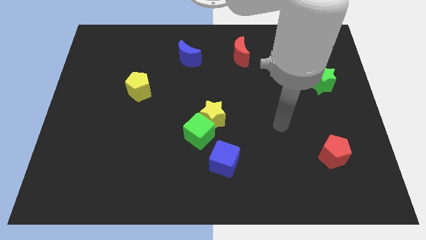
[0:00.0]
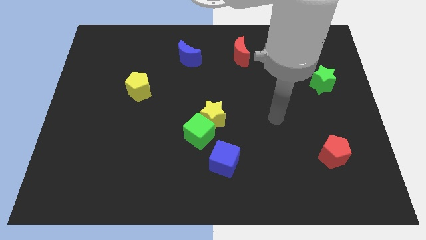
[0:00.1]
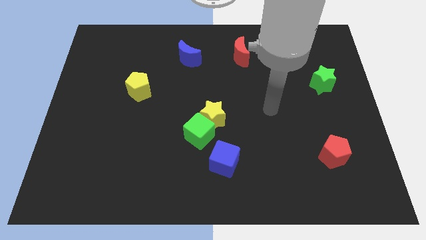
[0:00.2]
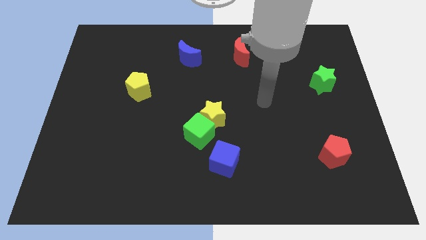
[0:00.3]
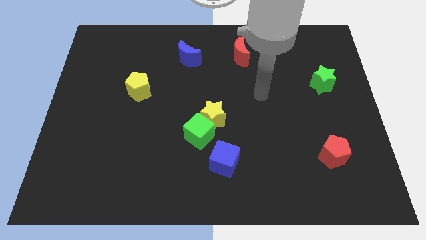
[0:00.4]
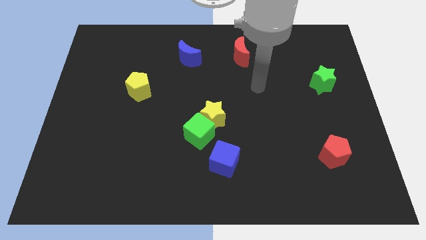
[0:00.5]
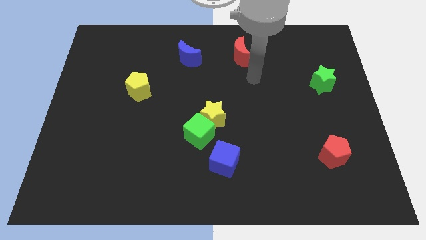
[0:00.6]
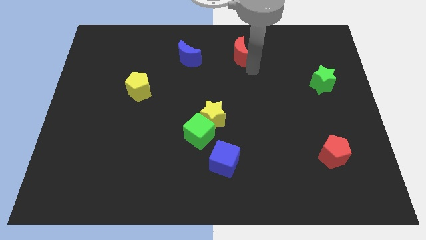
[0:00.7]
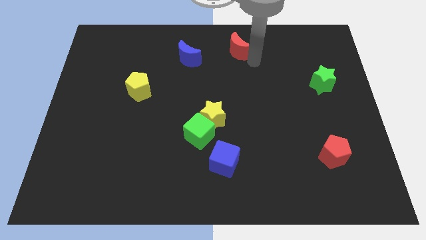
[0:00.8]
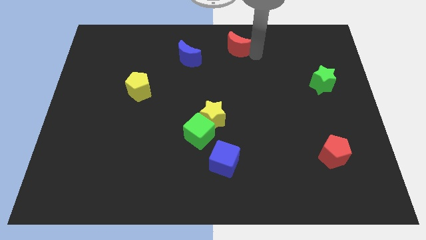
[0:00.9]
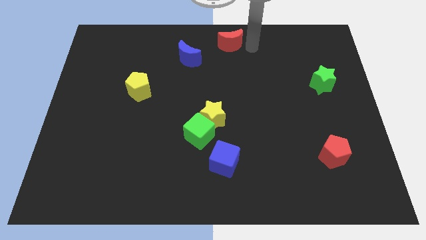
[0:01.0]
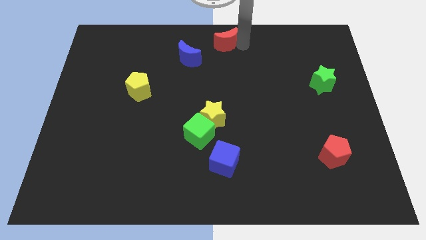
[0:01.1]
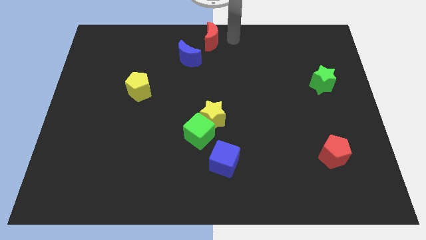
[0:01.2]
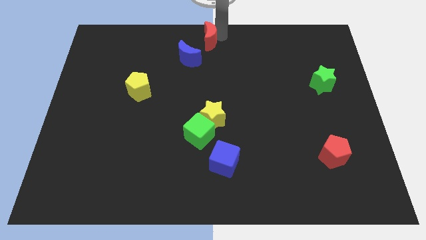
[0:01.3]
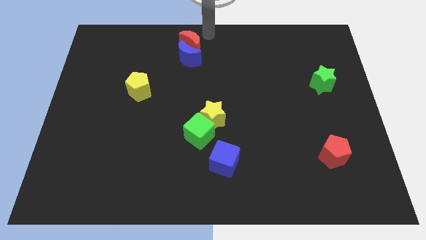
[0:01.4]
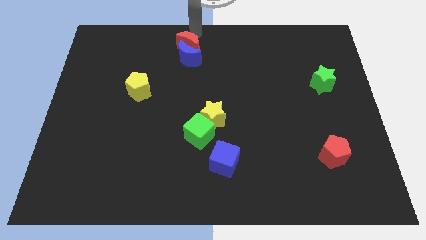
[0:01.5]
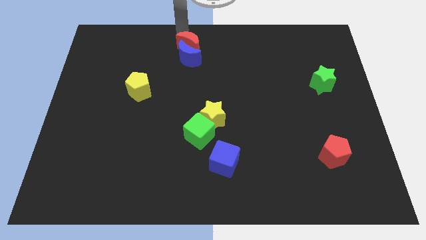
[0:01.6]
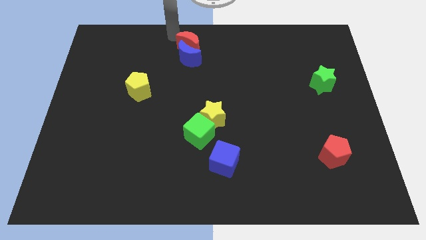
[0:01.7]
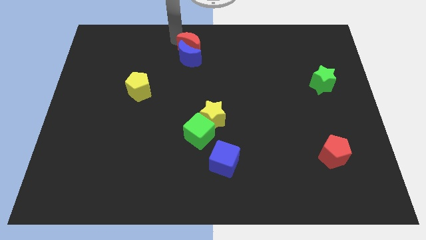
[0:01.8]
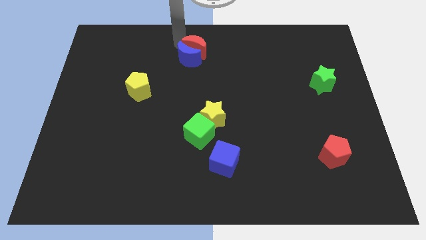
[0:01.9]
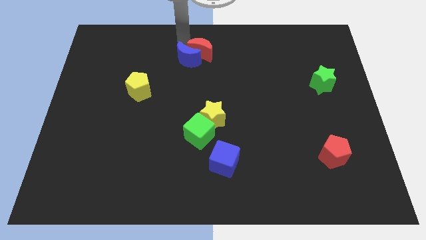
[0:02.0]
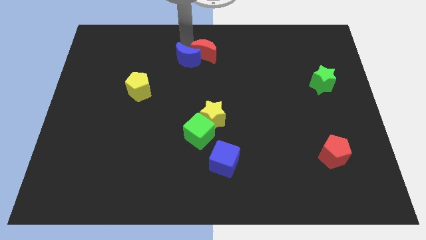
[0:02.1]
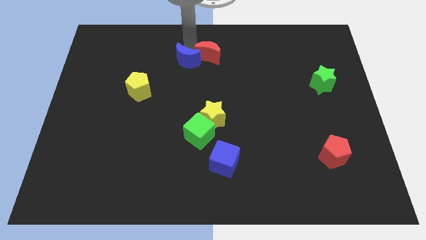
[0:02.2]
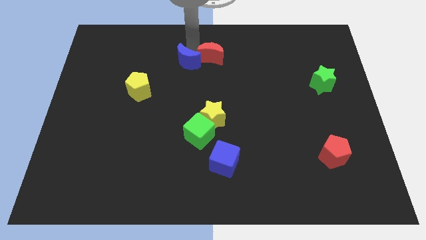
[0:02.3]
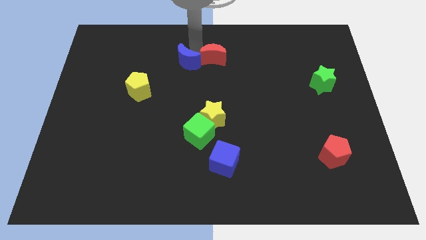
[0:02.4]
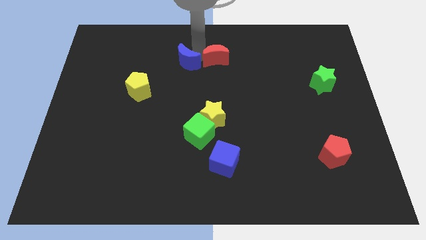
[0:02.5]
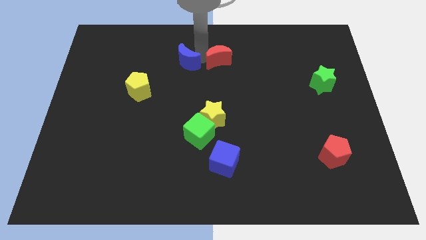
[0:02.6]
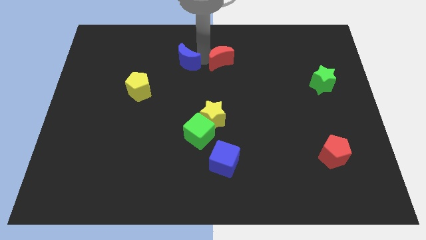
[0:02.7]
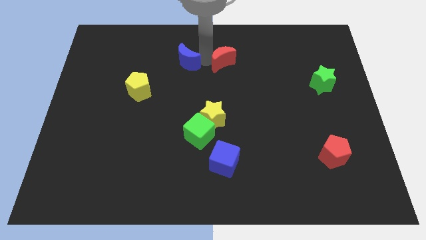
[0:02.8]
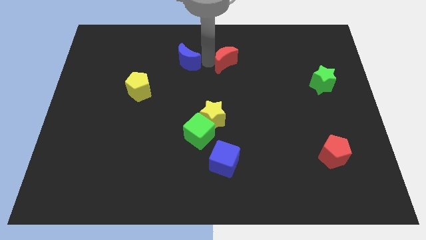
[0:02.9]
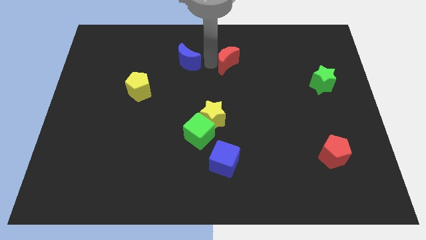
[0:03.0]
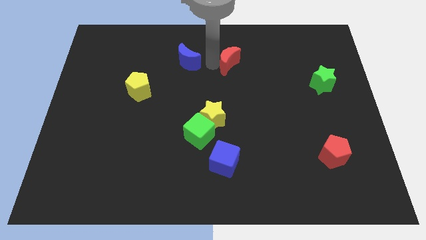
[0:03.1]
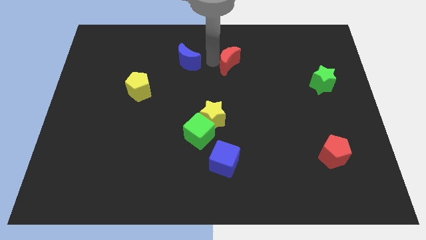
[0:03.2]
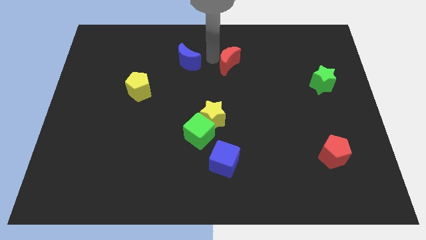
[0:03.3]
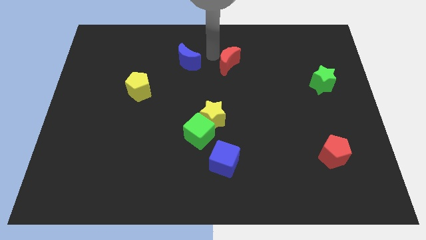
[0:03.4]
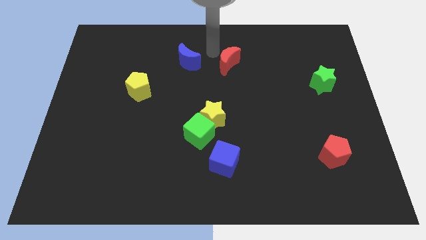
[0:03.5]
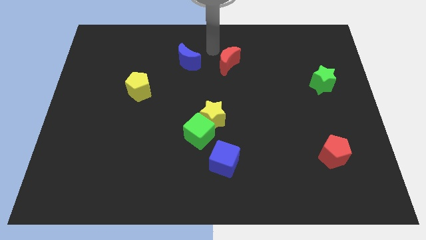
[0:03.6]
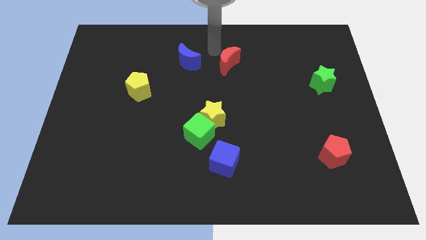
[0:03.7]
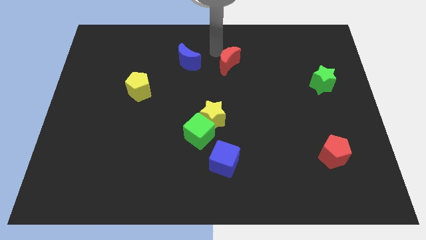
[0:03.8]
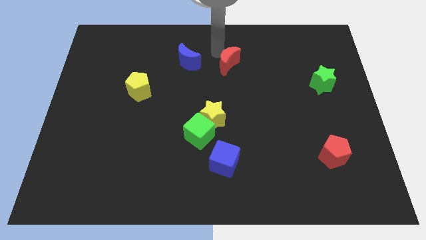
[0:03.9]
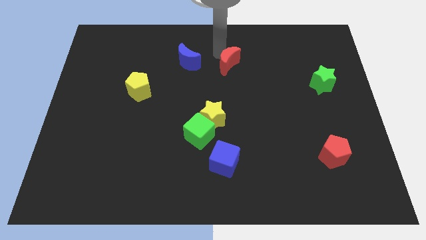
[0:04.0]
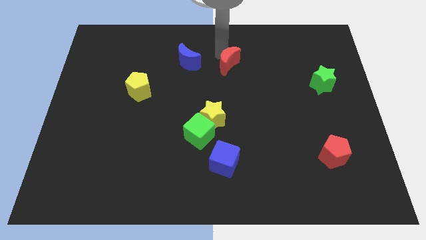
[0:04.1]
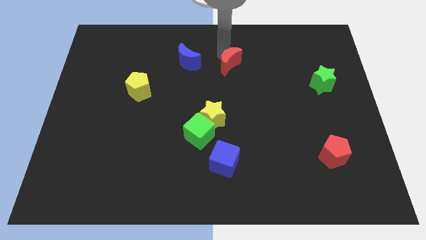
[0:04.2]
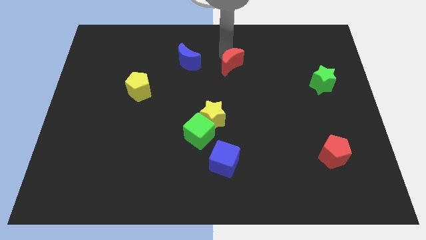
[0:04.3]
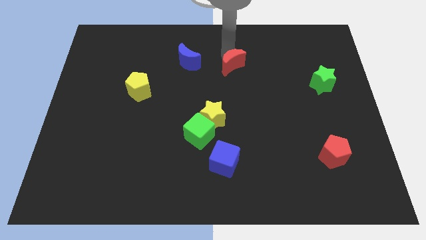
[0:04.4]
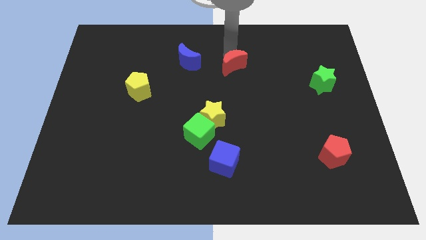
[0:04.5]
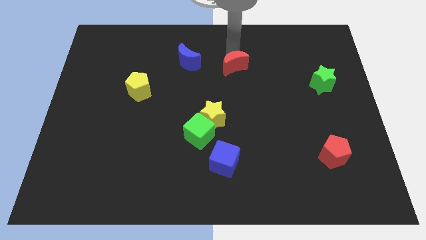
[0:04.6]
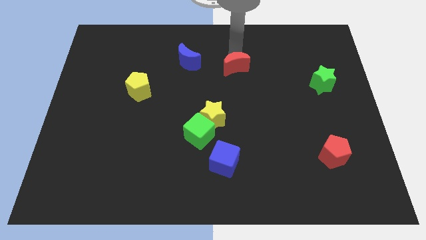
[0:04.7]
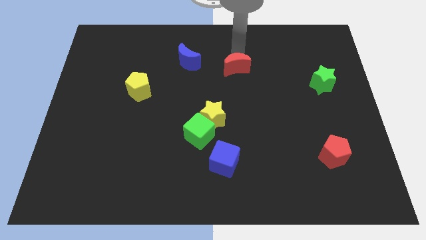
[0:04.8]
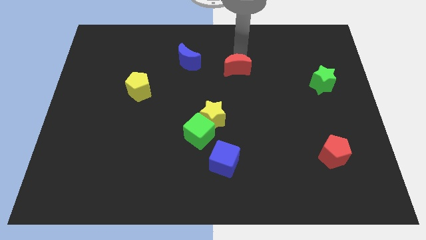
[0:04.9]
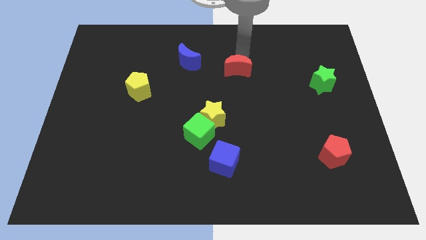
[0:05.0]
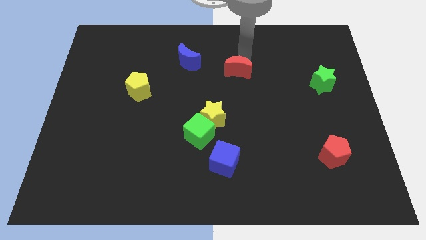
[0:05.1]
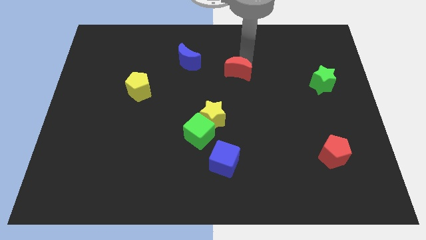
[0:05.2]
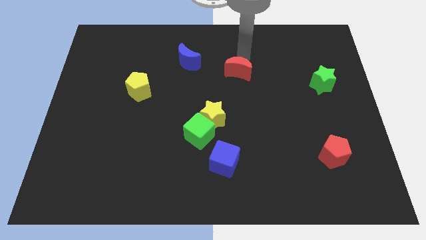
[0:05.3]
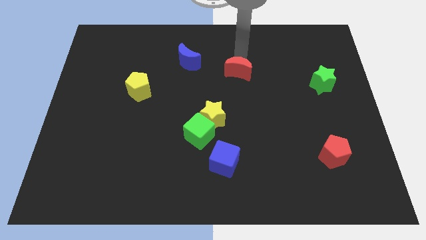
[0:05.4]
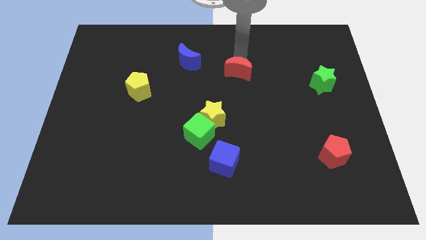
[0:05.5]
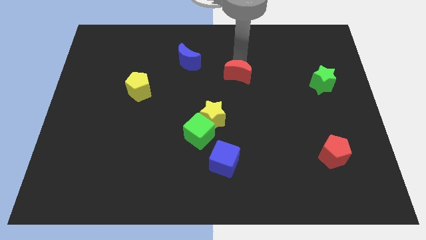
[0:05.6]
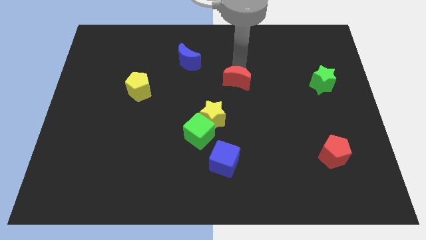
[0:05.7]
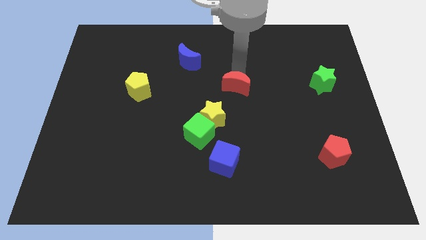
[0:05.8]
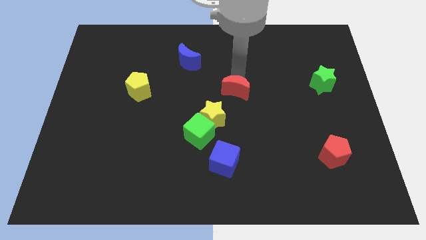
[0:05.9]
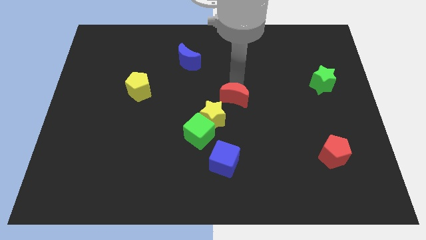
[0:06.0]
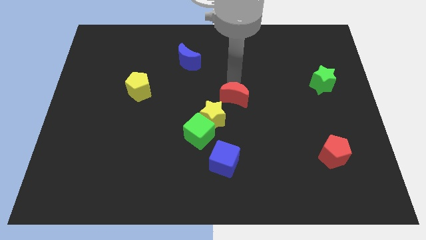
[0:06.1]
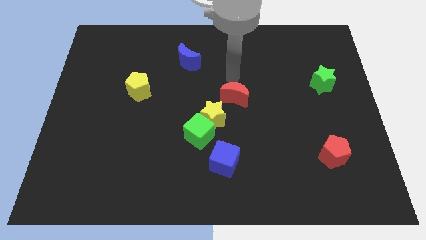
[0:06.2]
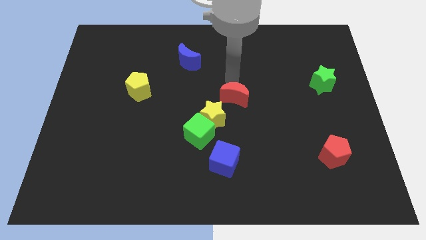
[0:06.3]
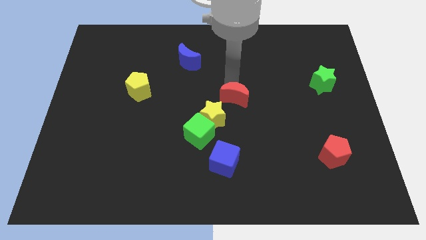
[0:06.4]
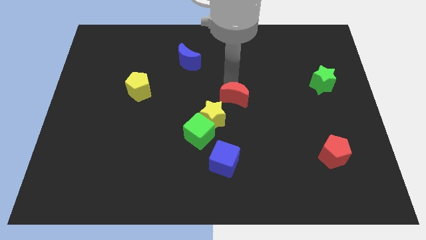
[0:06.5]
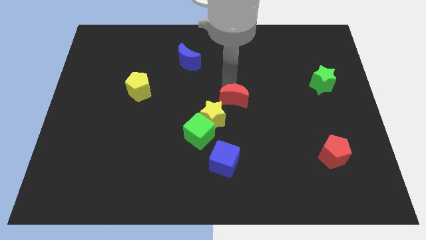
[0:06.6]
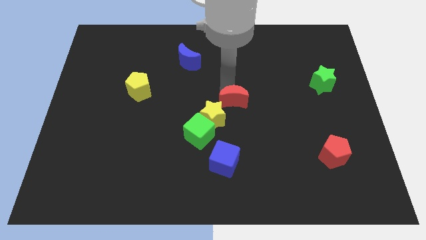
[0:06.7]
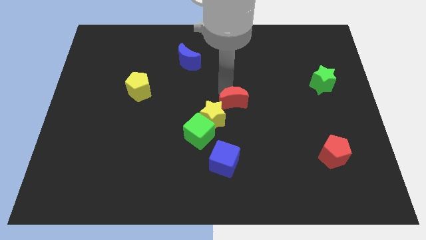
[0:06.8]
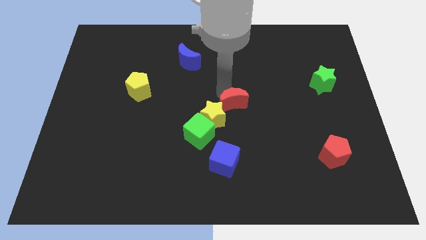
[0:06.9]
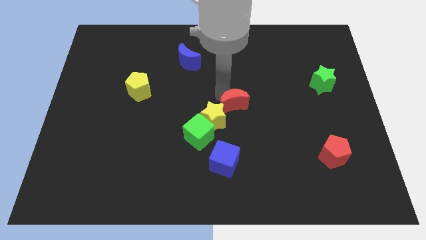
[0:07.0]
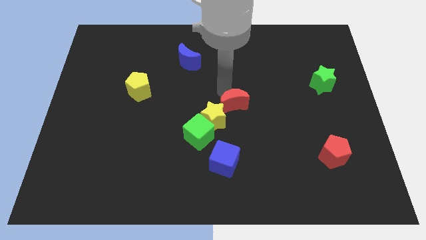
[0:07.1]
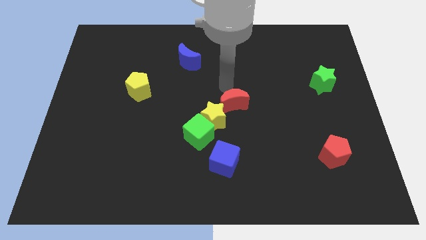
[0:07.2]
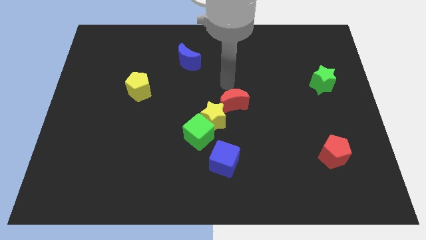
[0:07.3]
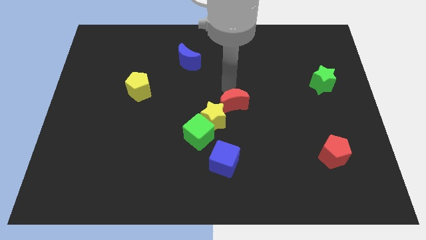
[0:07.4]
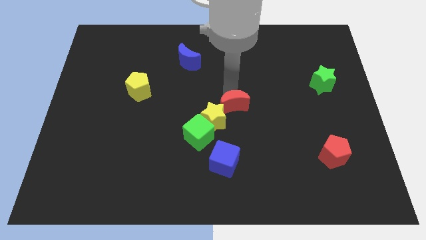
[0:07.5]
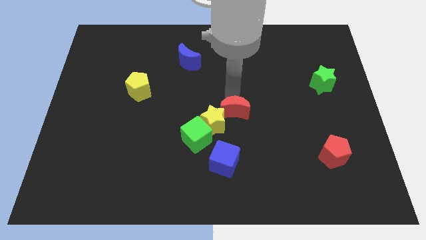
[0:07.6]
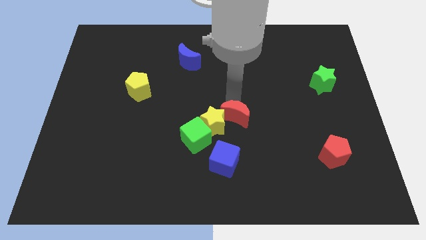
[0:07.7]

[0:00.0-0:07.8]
push the red moon down

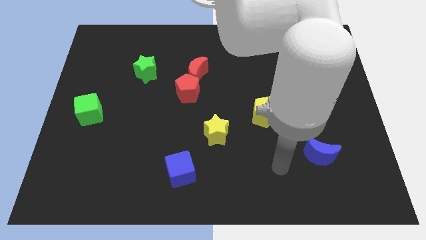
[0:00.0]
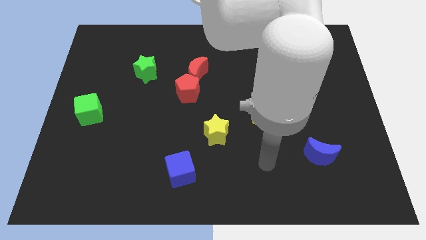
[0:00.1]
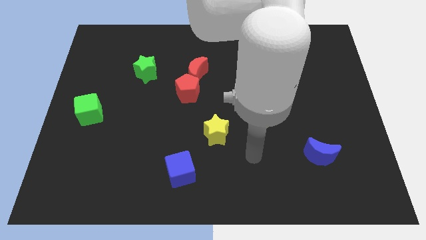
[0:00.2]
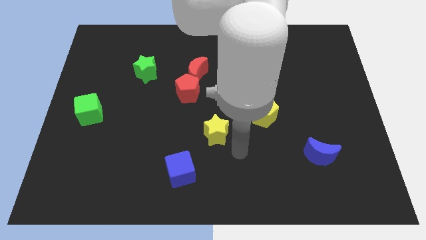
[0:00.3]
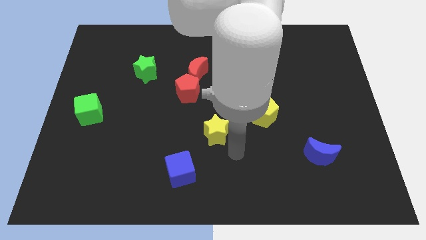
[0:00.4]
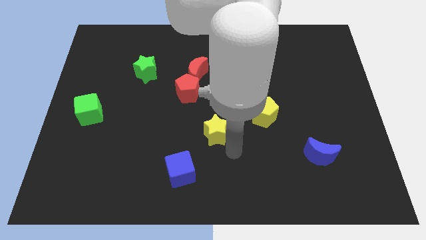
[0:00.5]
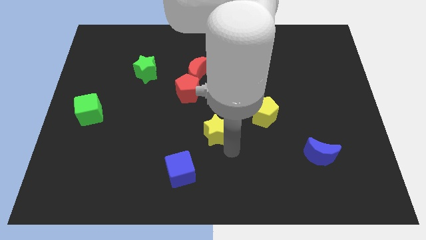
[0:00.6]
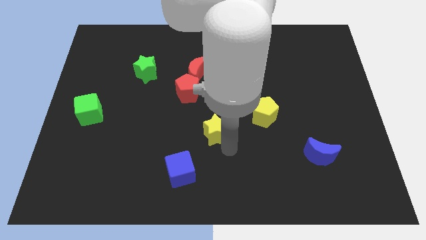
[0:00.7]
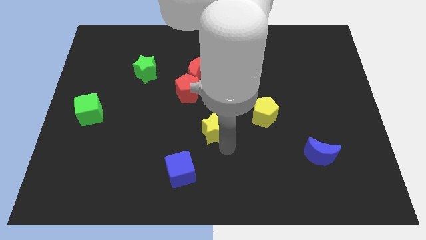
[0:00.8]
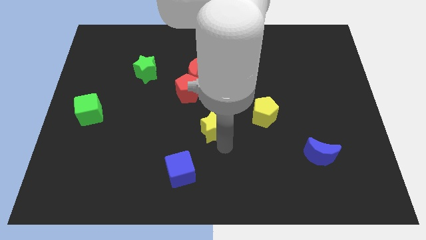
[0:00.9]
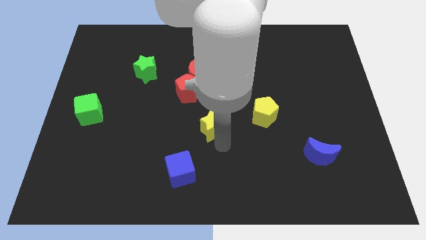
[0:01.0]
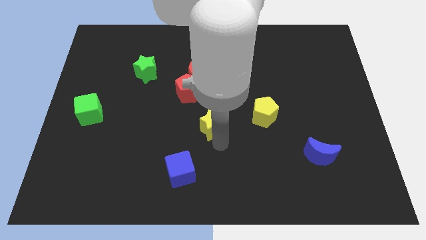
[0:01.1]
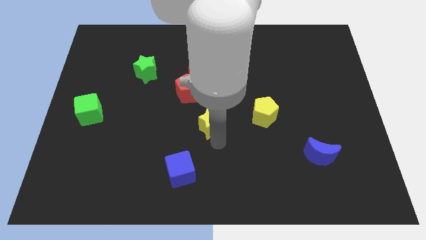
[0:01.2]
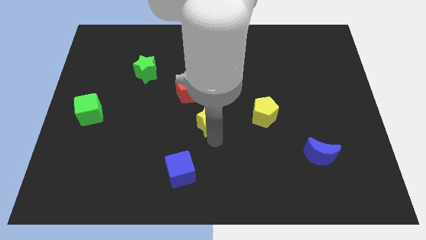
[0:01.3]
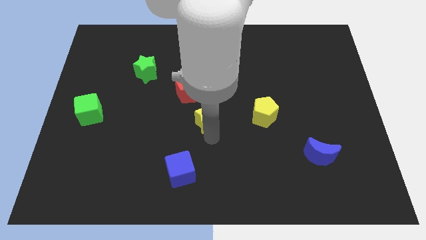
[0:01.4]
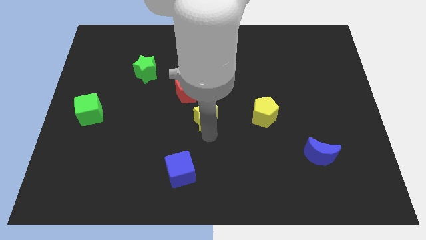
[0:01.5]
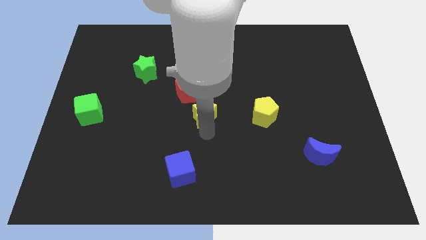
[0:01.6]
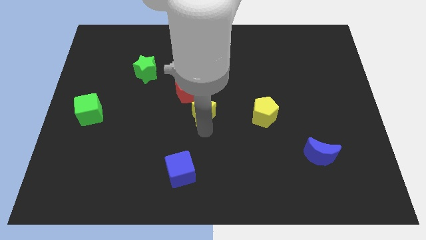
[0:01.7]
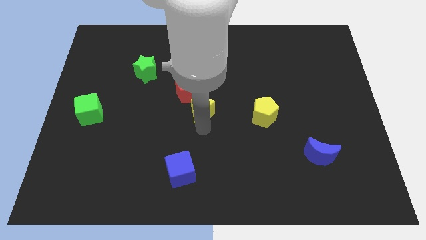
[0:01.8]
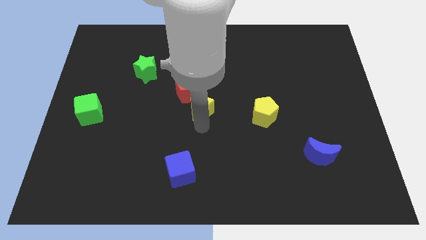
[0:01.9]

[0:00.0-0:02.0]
push the yellow star upwards and left slightly
